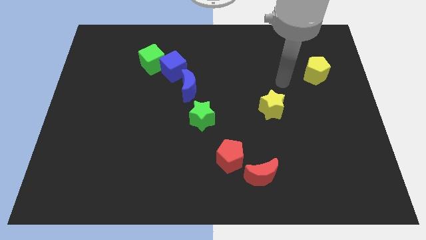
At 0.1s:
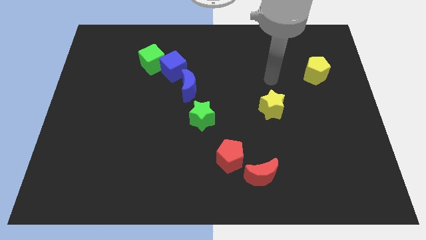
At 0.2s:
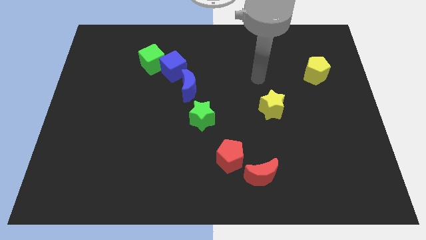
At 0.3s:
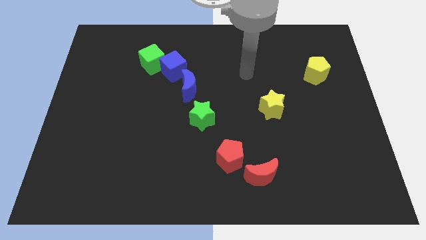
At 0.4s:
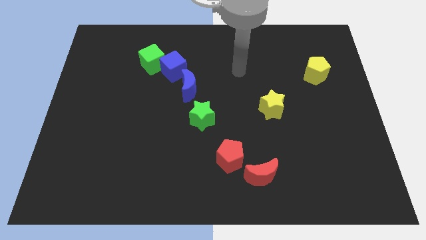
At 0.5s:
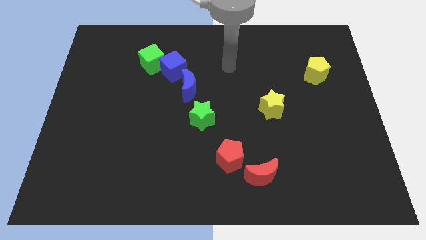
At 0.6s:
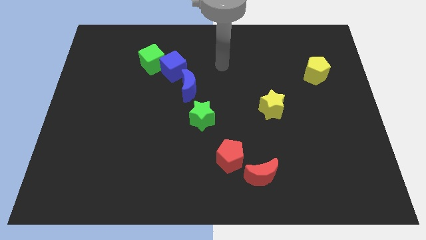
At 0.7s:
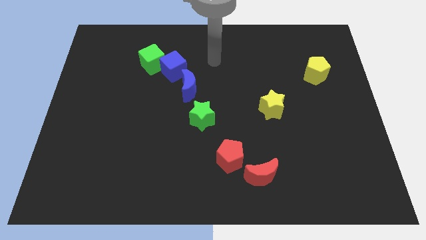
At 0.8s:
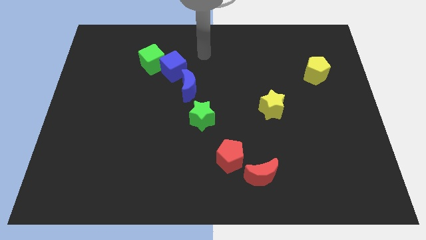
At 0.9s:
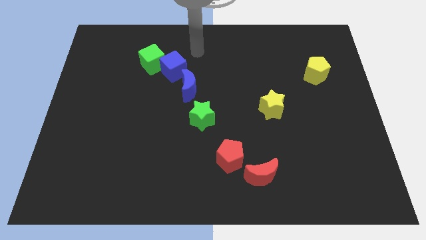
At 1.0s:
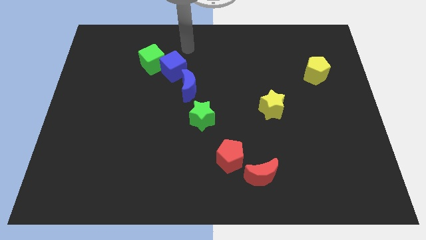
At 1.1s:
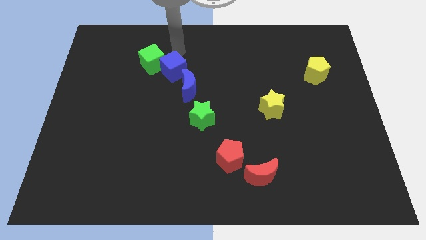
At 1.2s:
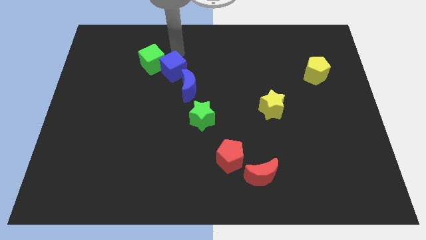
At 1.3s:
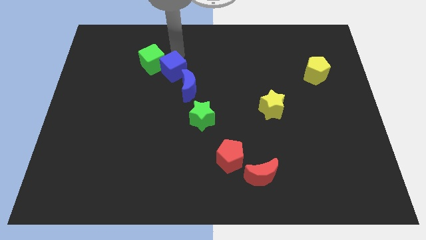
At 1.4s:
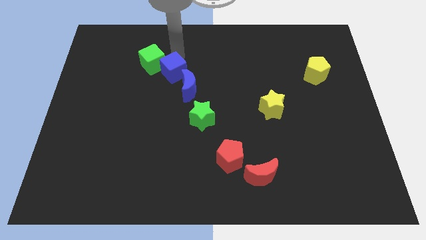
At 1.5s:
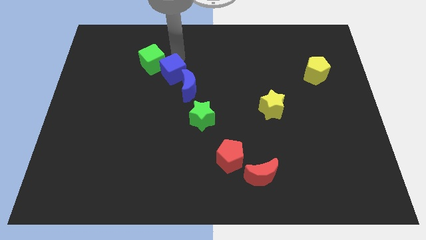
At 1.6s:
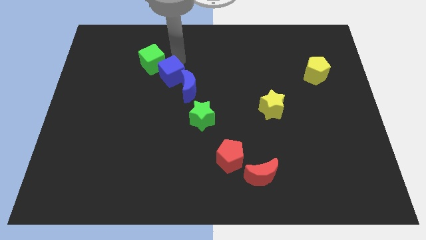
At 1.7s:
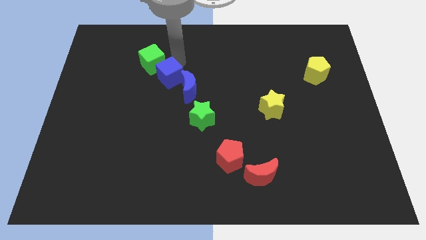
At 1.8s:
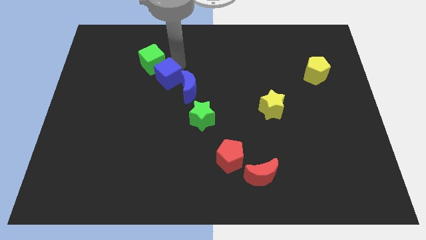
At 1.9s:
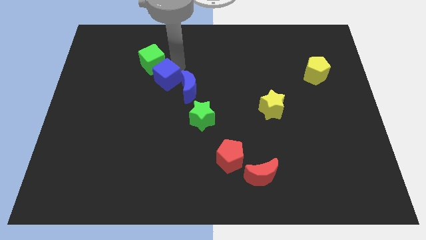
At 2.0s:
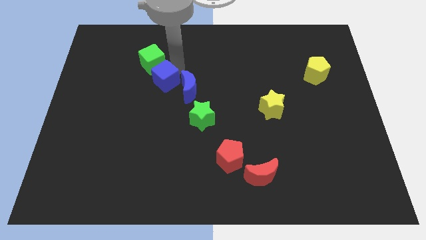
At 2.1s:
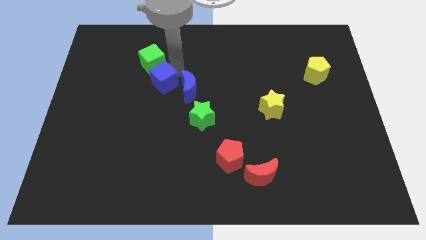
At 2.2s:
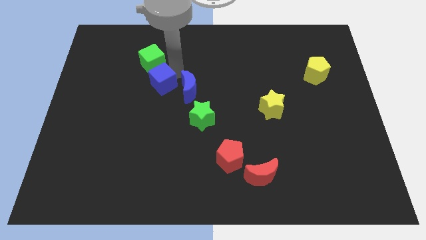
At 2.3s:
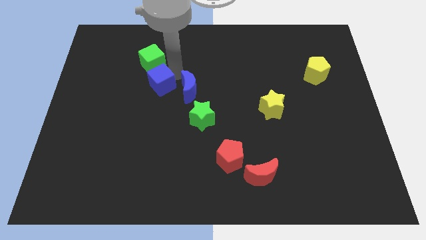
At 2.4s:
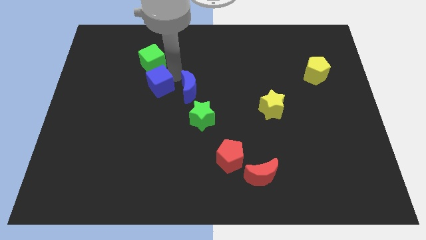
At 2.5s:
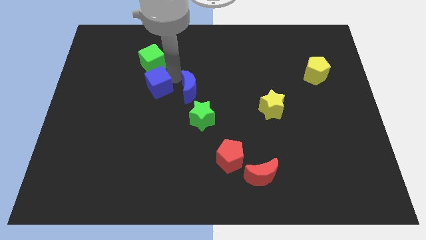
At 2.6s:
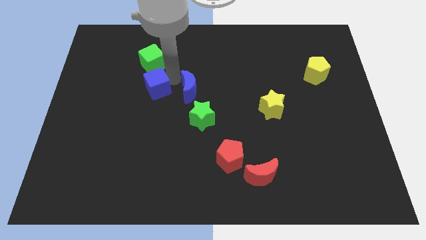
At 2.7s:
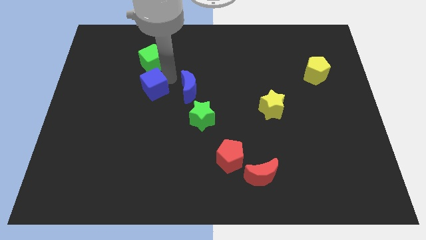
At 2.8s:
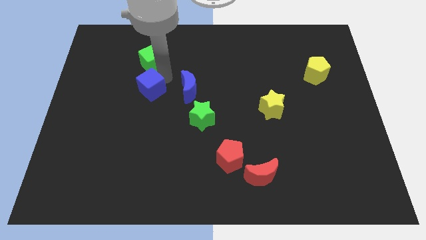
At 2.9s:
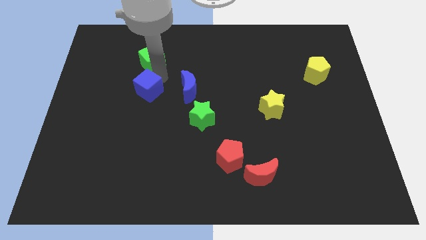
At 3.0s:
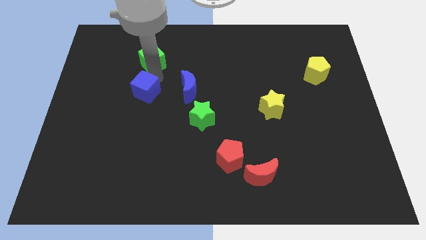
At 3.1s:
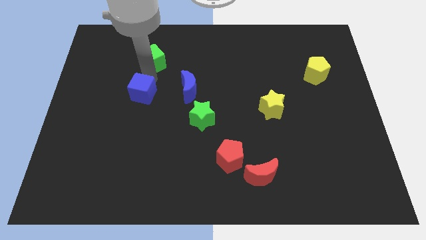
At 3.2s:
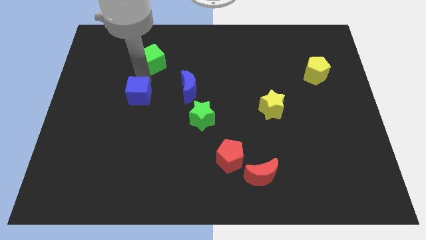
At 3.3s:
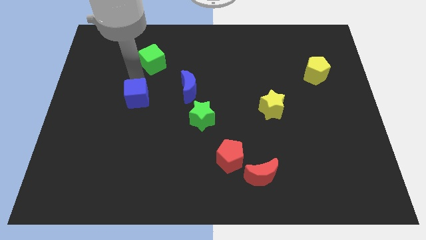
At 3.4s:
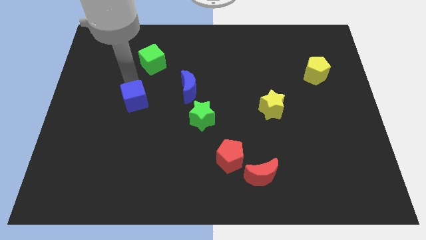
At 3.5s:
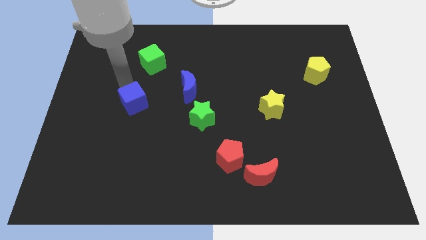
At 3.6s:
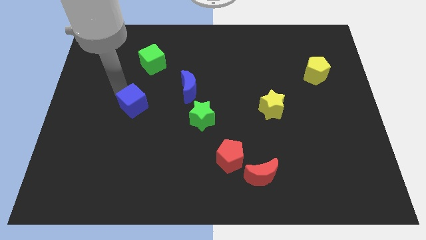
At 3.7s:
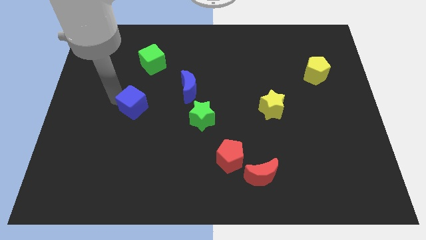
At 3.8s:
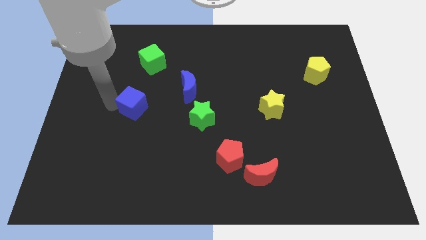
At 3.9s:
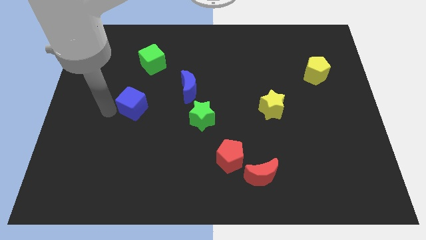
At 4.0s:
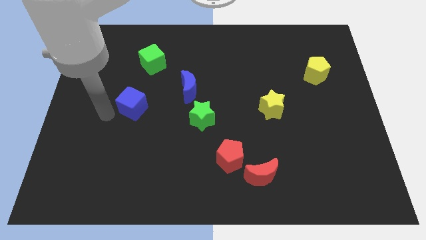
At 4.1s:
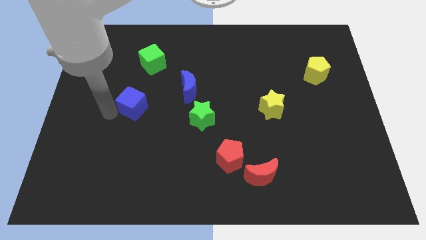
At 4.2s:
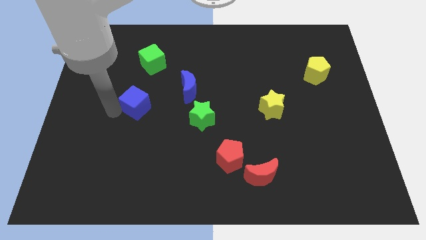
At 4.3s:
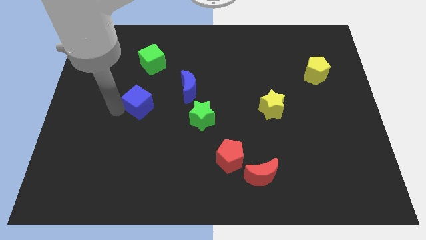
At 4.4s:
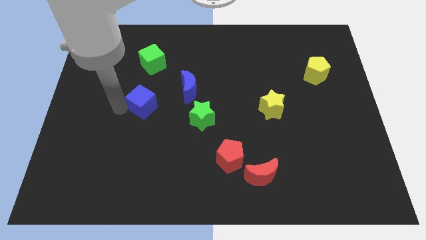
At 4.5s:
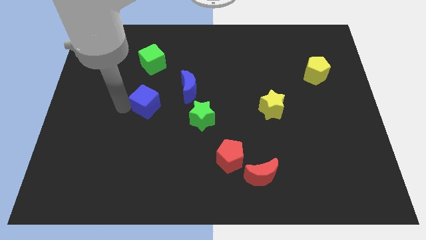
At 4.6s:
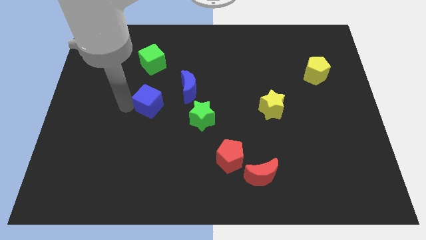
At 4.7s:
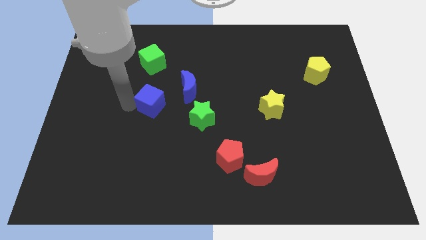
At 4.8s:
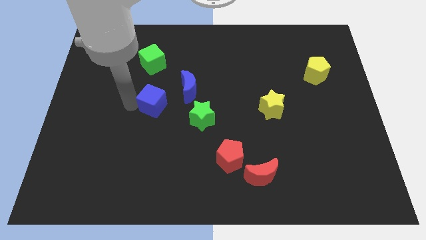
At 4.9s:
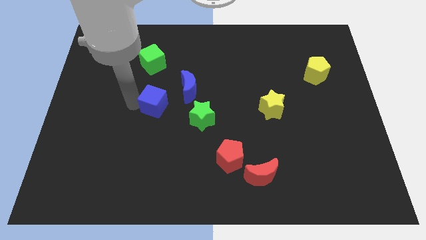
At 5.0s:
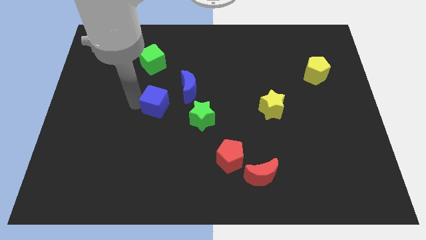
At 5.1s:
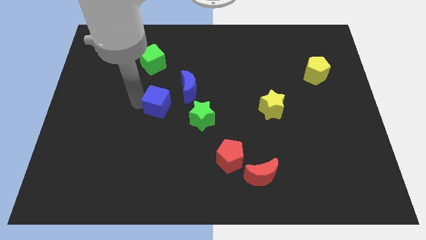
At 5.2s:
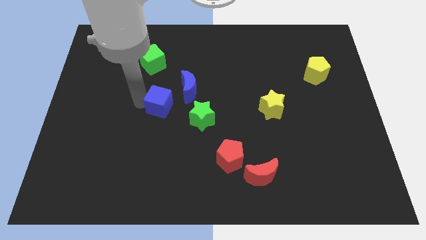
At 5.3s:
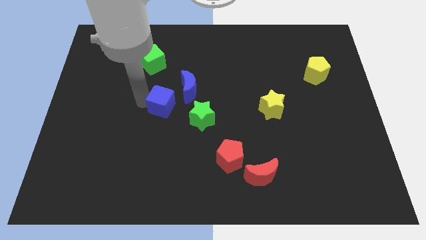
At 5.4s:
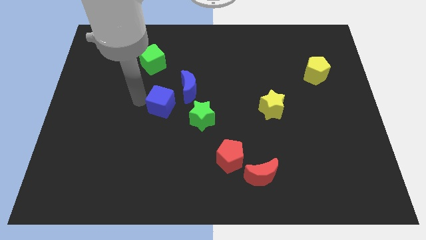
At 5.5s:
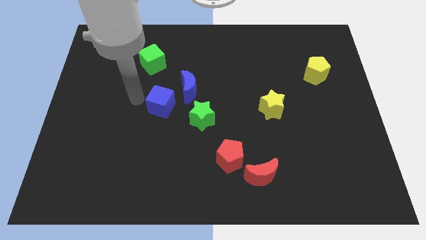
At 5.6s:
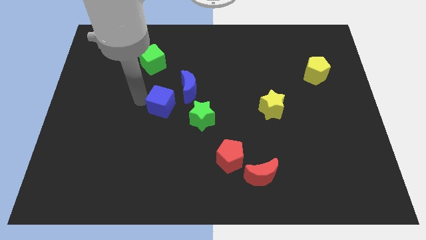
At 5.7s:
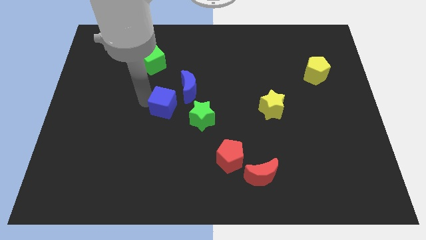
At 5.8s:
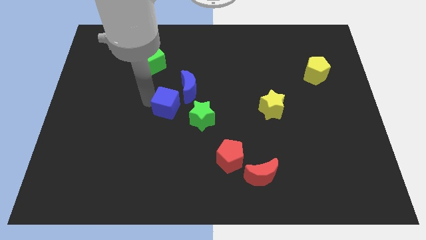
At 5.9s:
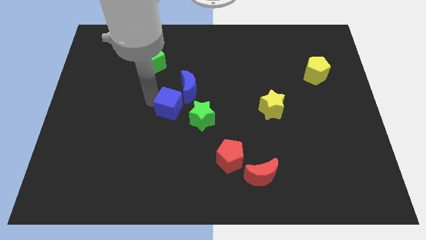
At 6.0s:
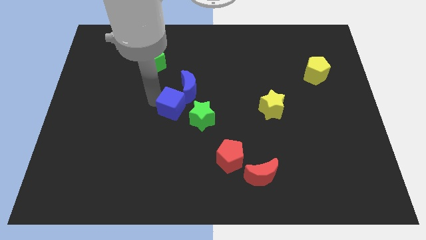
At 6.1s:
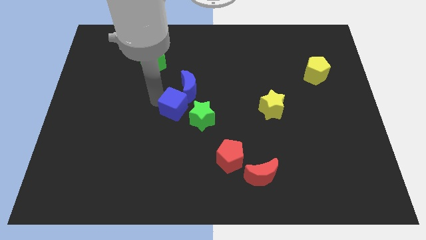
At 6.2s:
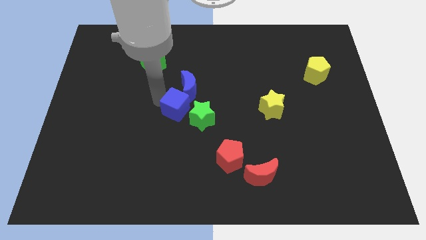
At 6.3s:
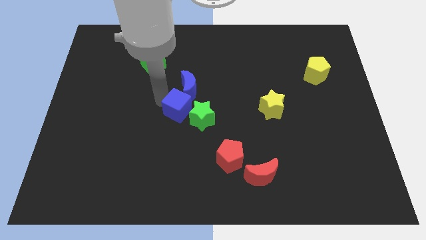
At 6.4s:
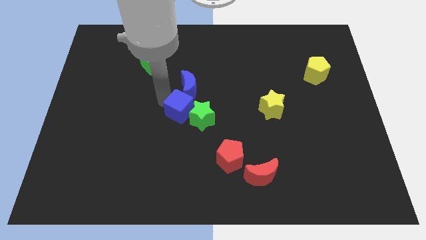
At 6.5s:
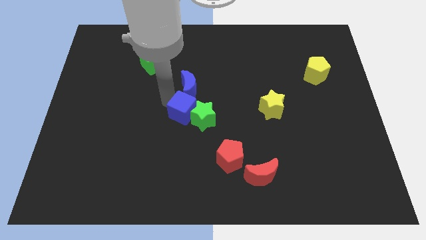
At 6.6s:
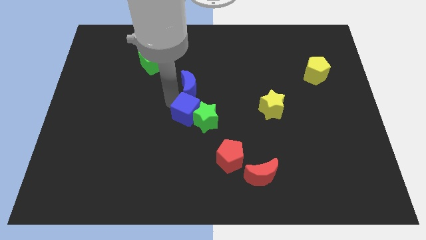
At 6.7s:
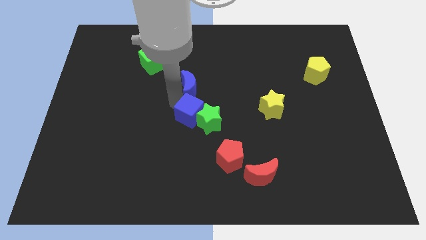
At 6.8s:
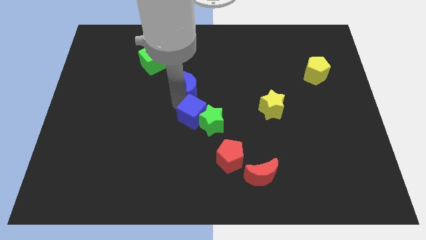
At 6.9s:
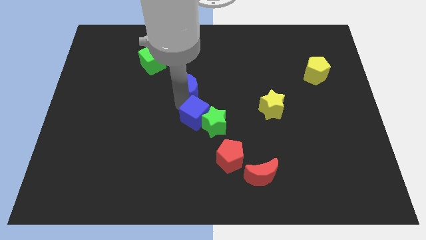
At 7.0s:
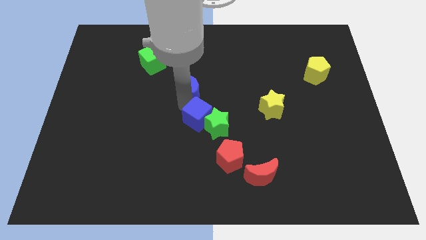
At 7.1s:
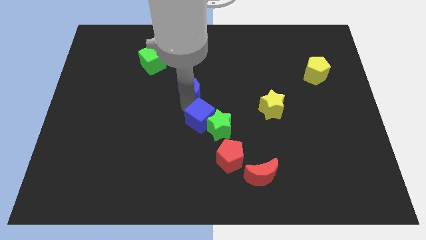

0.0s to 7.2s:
put the blue cube diagonally up and to the left of the red pentagon
